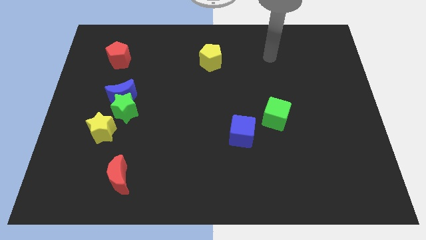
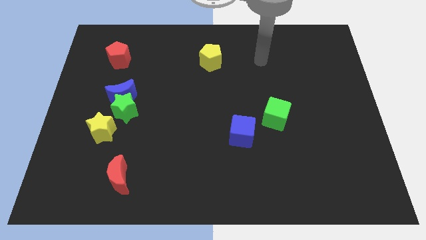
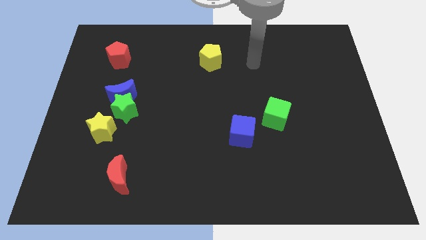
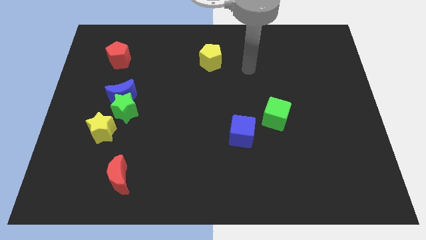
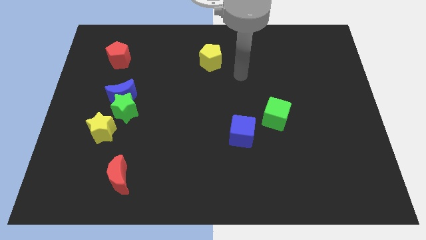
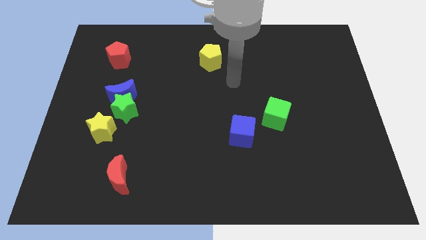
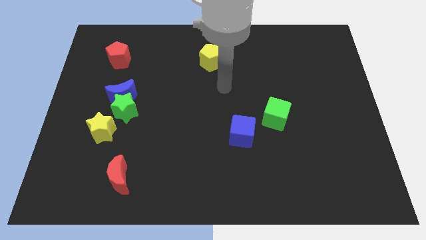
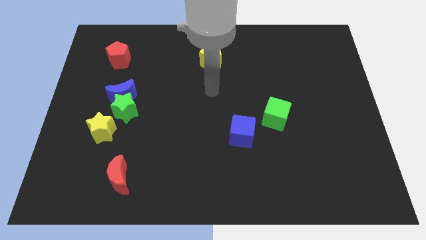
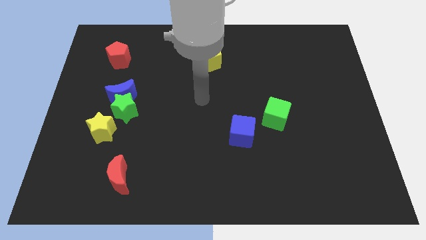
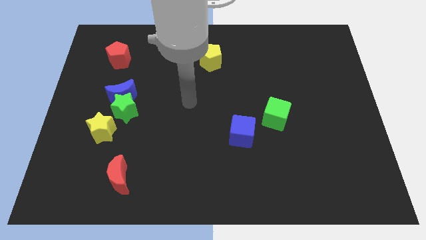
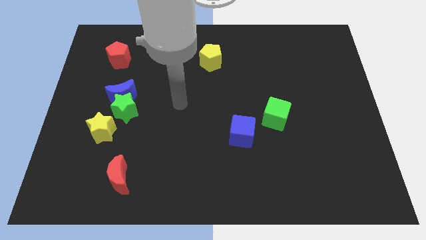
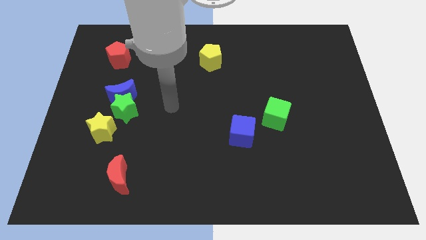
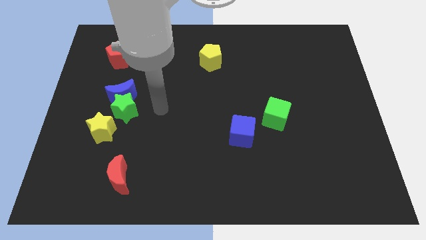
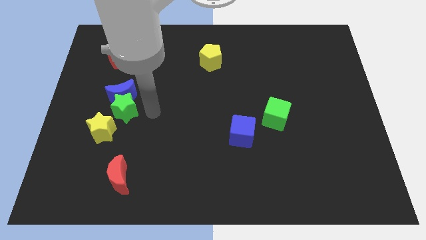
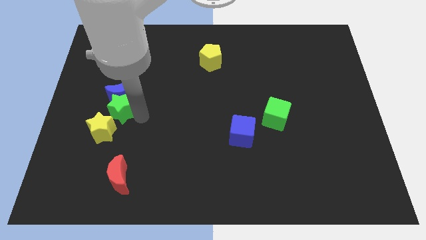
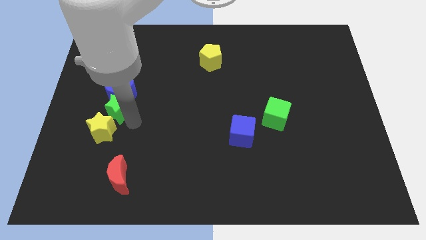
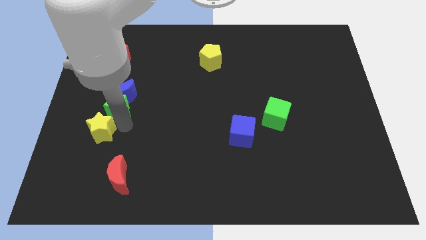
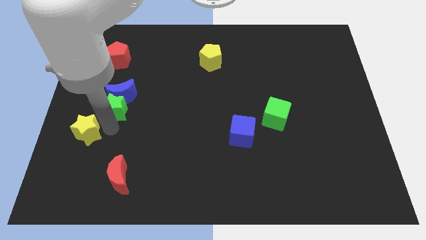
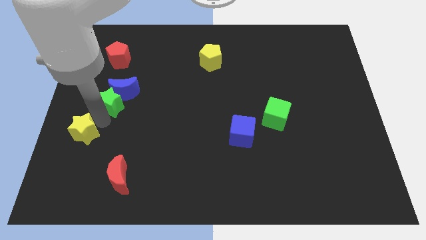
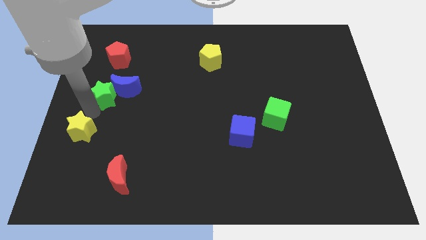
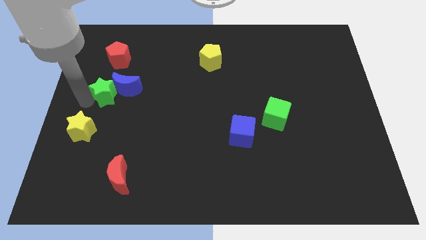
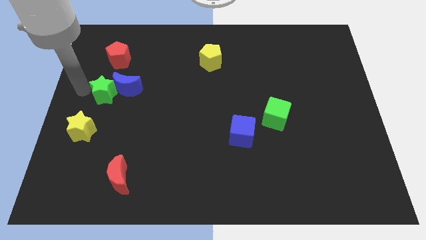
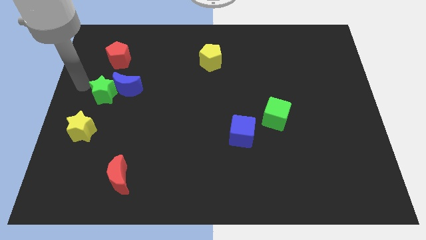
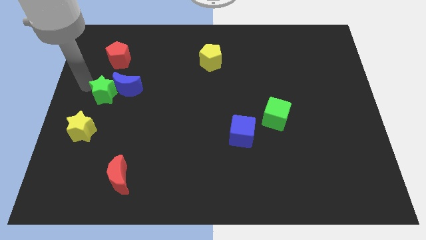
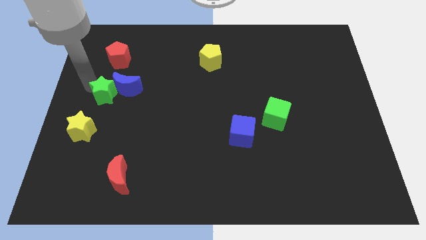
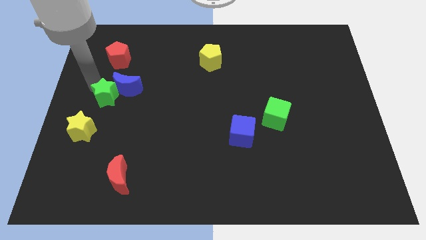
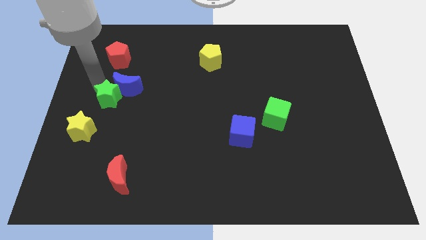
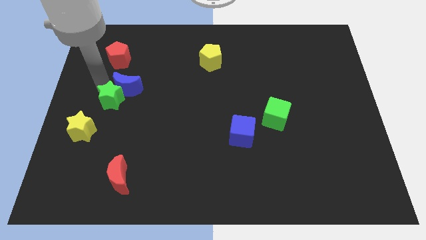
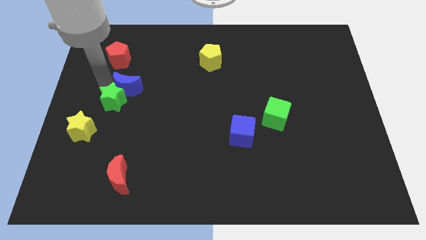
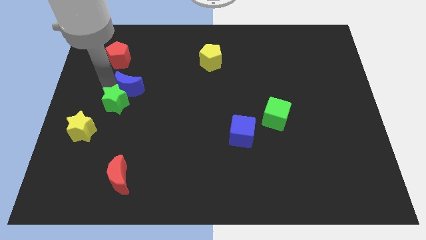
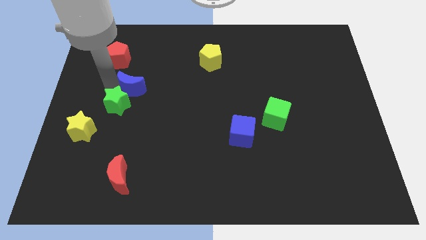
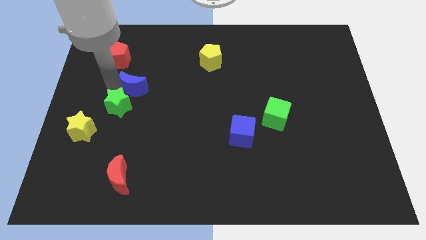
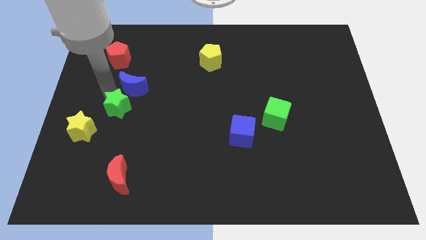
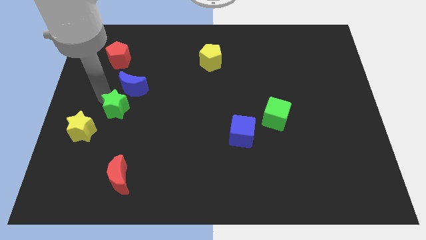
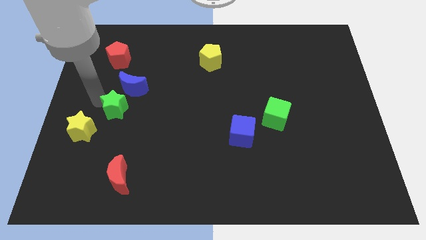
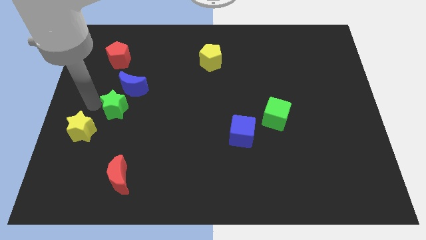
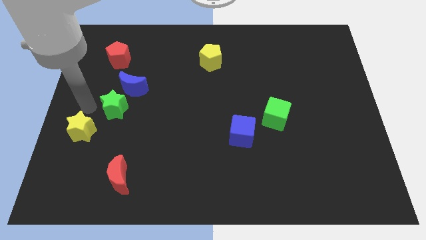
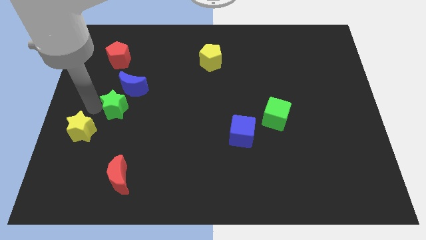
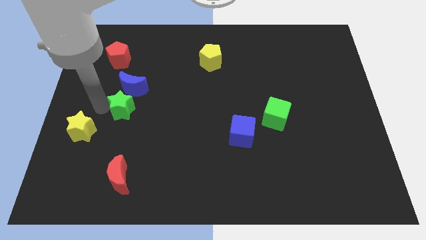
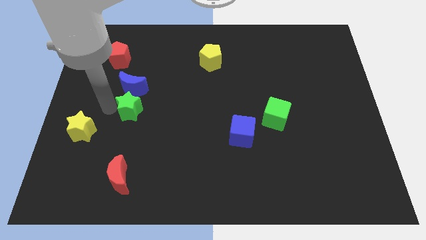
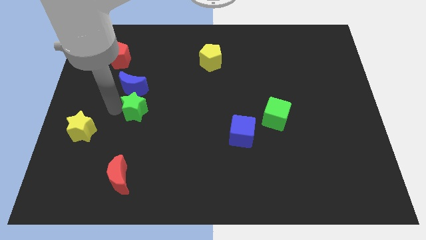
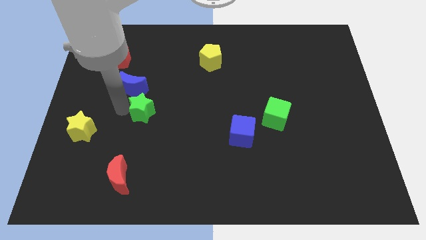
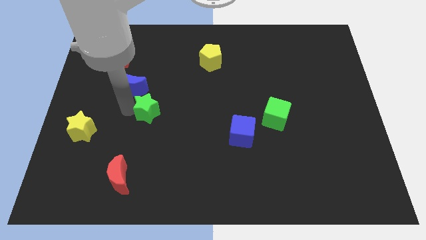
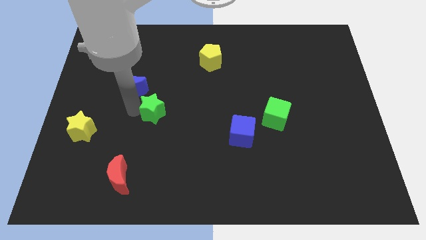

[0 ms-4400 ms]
move the green star away from the blue moon and yellow star

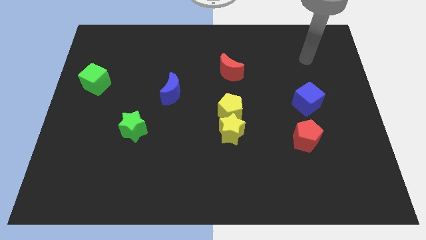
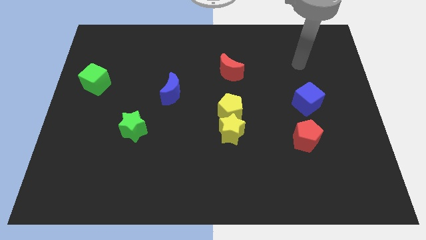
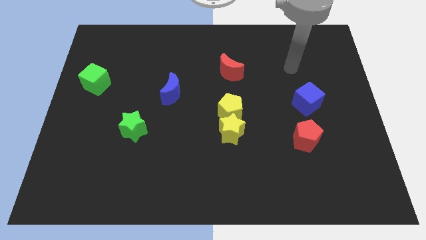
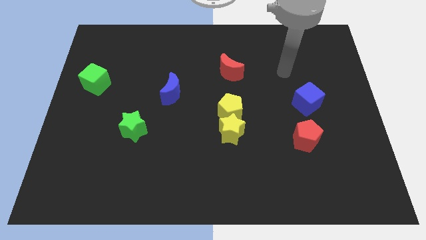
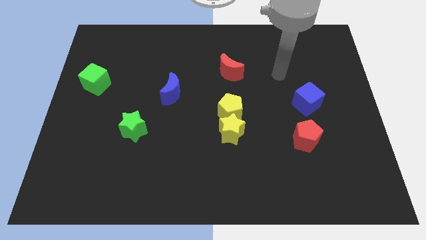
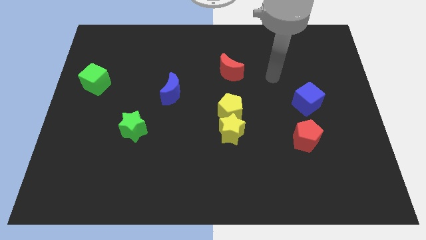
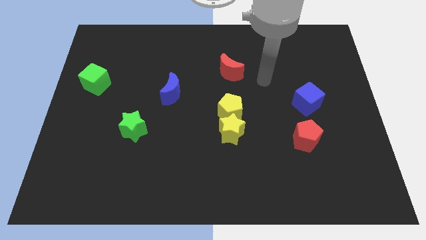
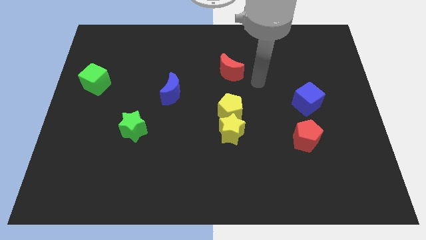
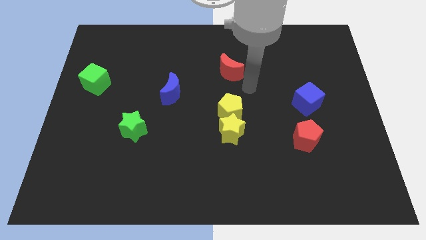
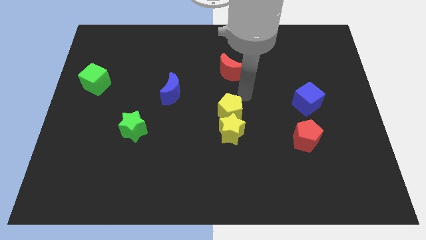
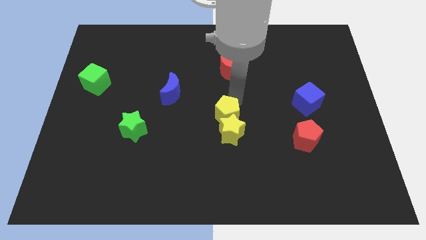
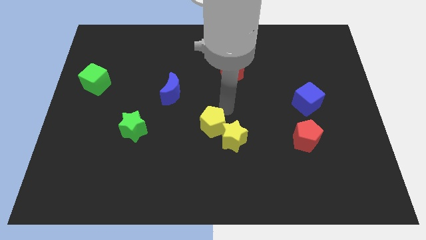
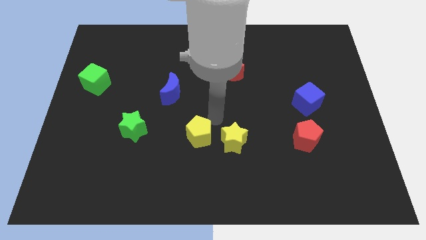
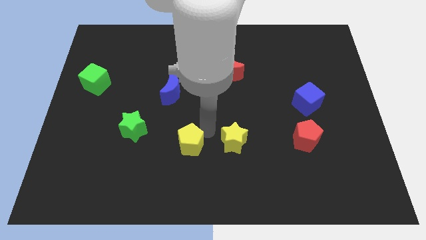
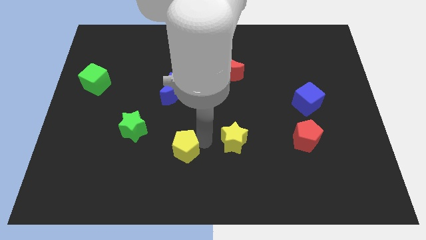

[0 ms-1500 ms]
move the yellow star away from the yellow pentagon

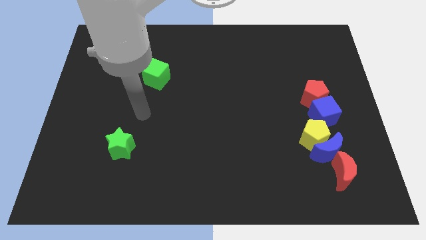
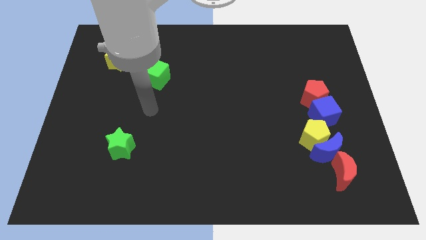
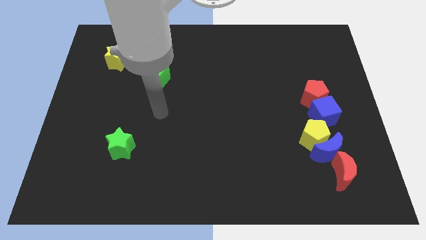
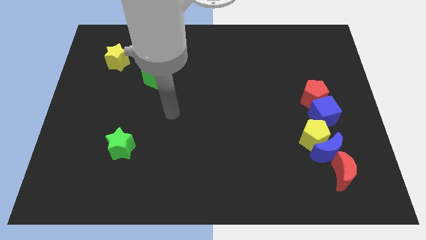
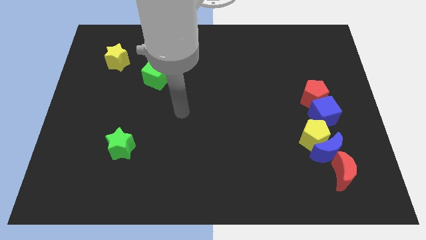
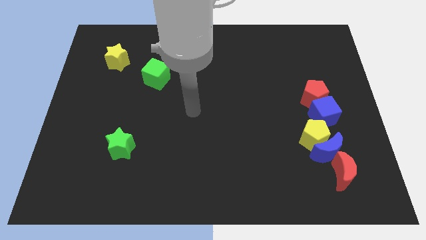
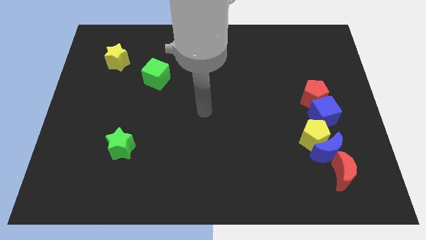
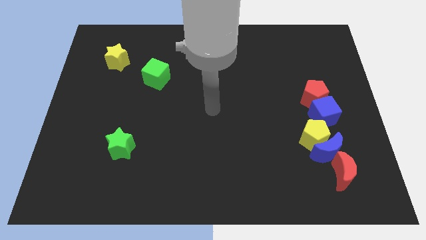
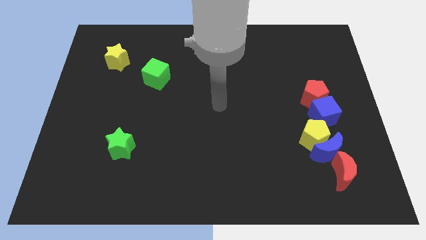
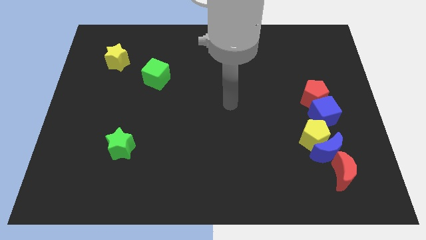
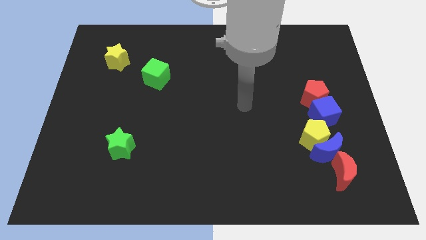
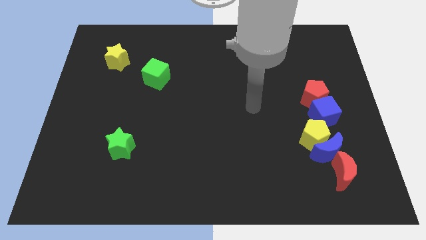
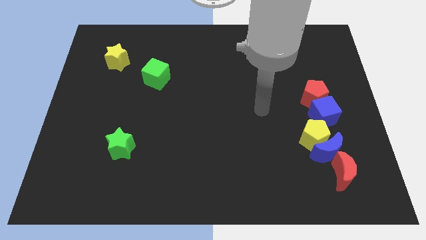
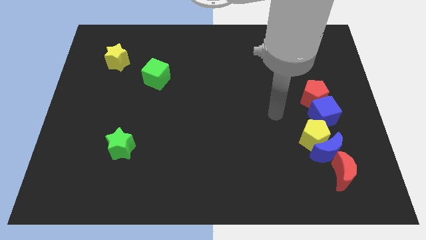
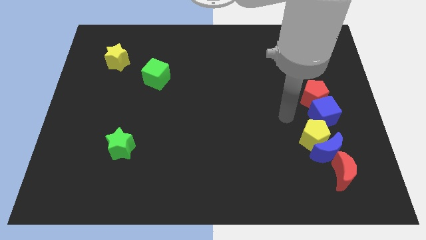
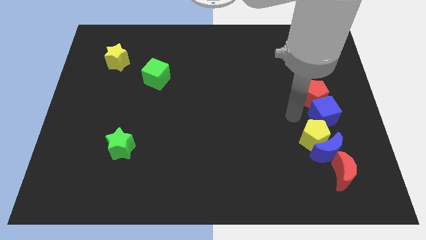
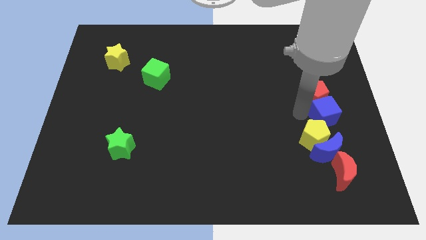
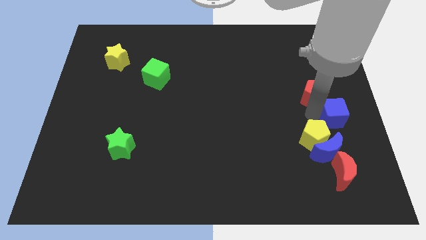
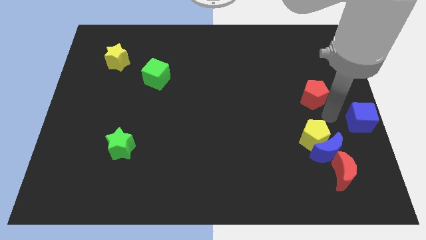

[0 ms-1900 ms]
move the red pentagon away from the blue cube

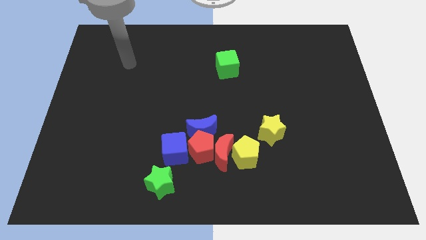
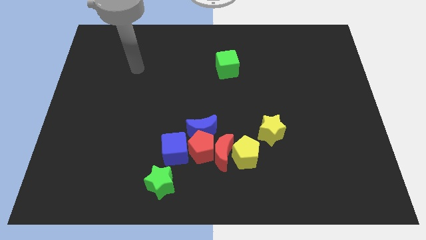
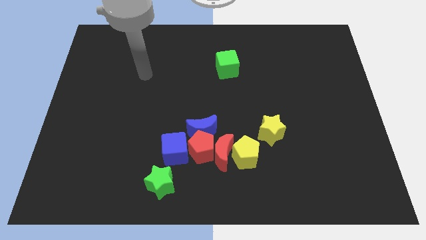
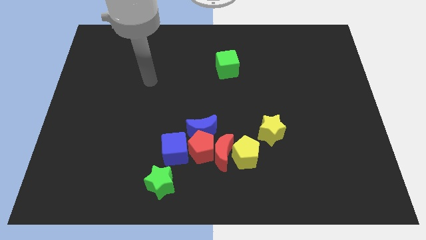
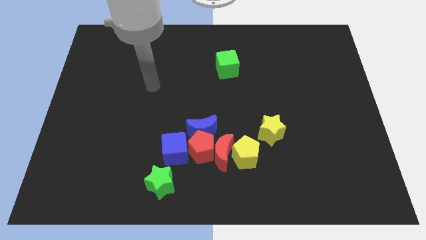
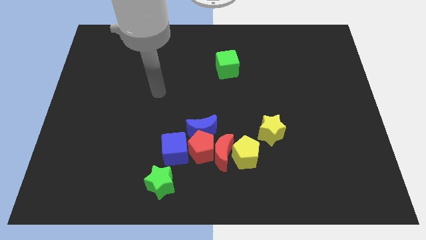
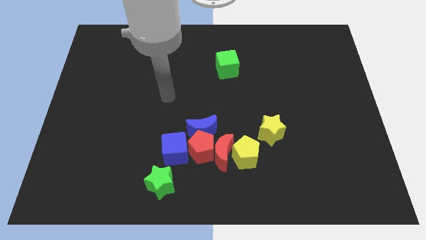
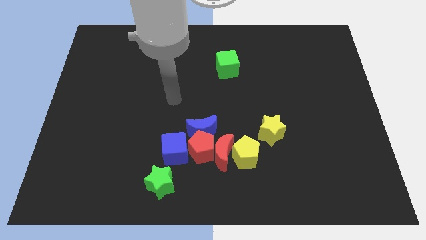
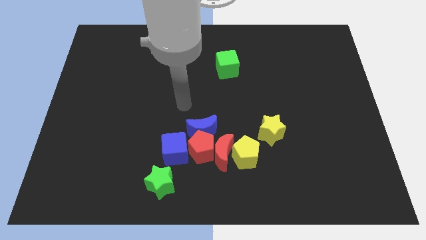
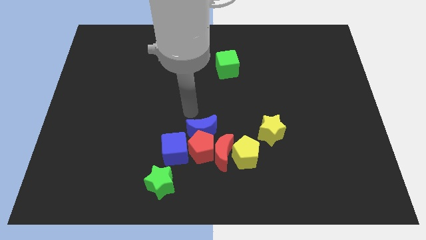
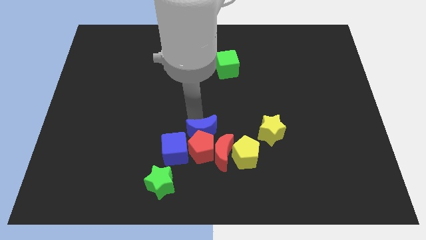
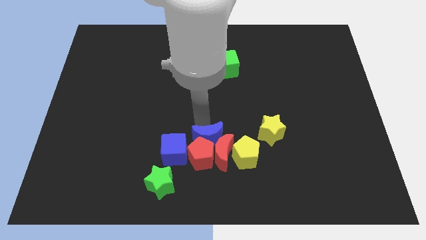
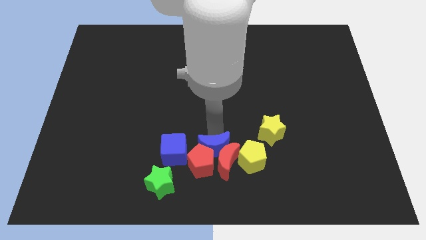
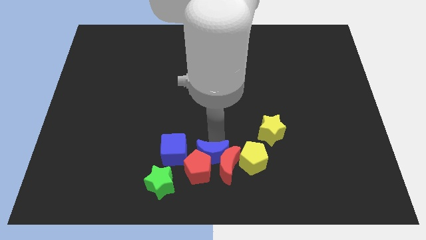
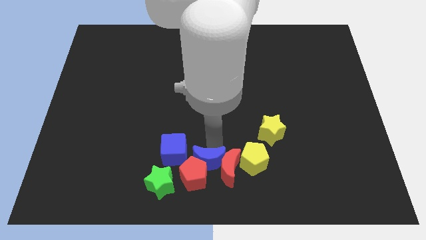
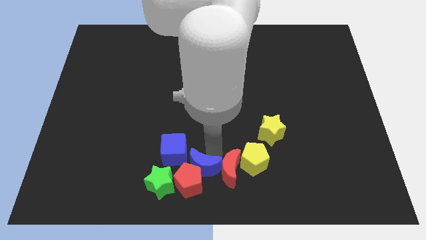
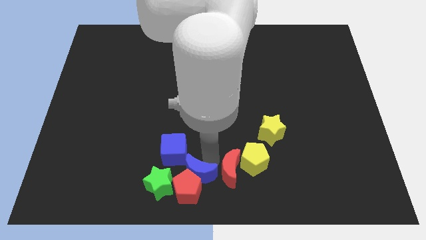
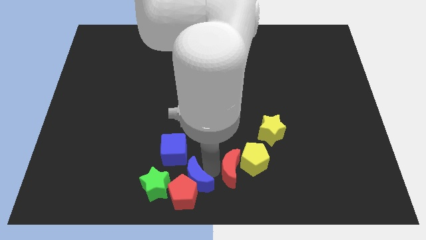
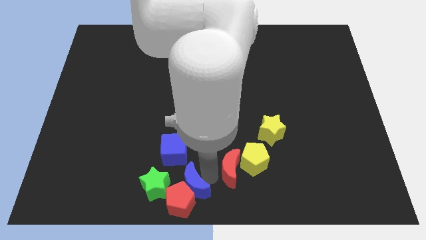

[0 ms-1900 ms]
separate the red pentagon from the group of blocks
